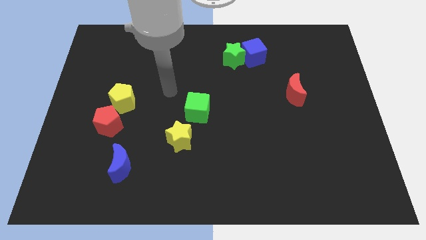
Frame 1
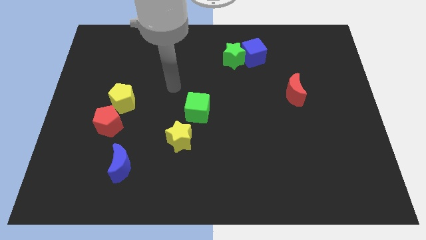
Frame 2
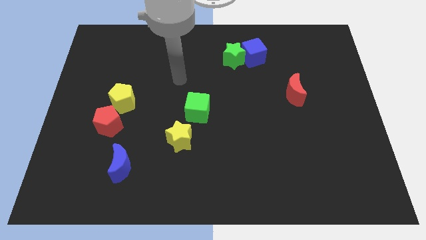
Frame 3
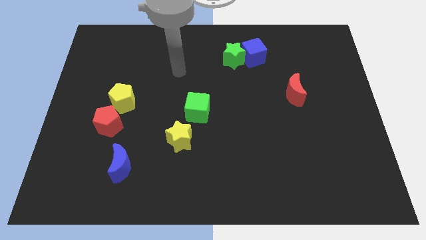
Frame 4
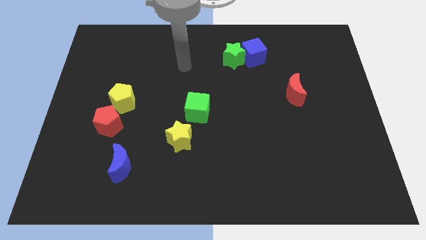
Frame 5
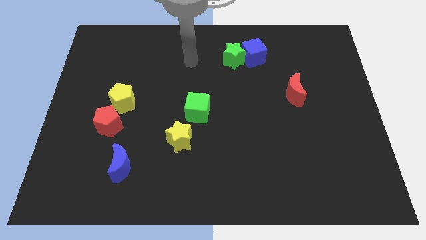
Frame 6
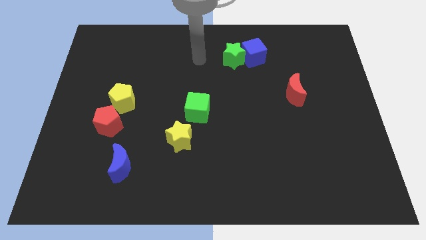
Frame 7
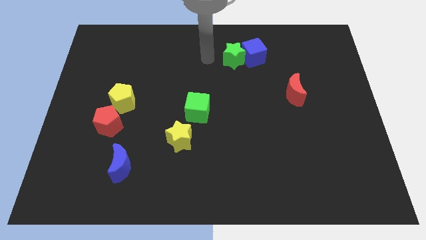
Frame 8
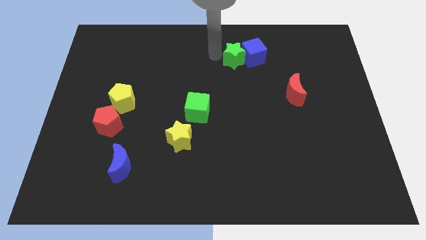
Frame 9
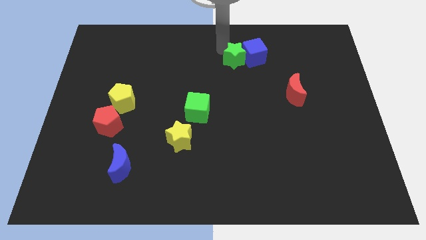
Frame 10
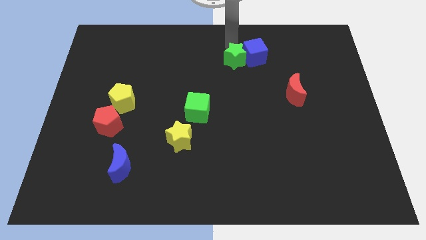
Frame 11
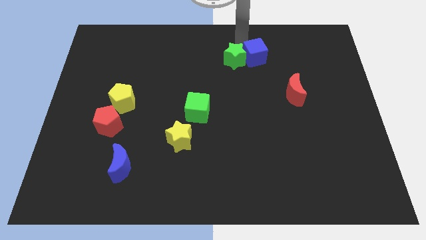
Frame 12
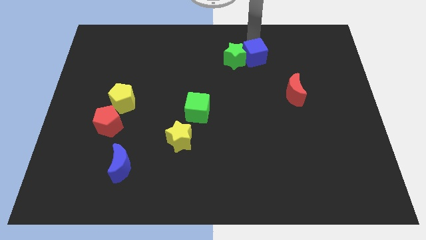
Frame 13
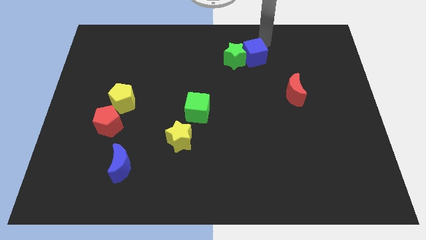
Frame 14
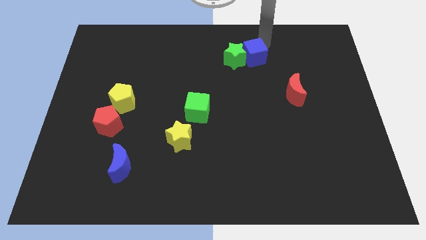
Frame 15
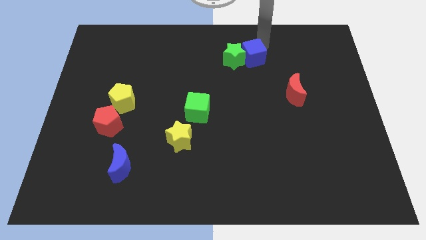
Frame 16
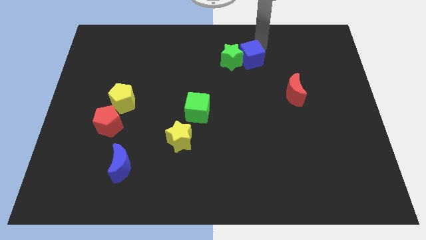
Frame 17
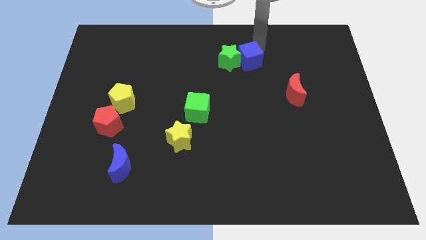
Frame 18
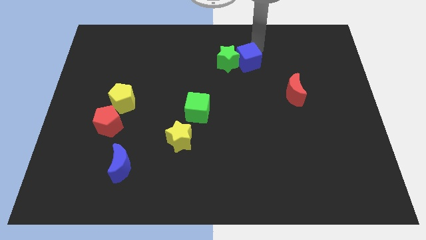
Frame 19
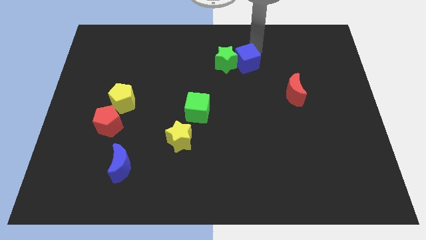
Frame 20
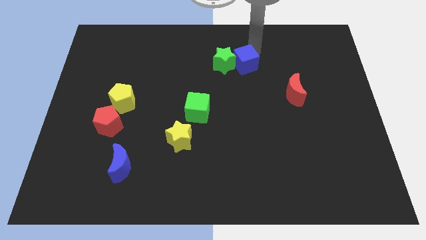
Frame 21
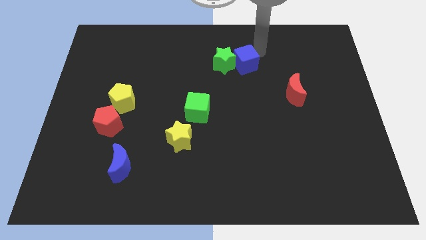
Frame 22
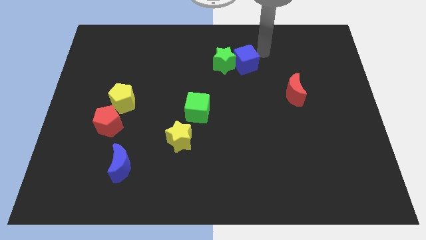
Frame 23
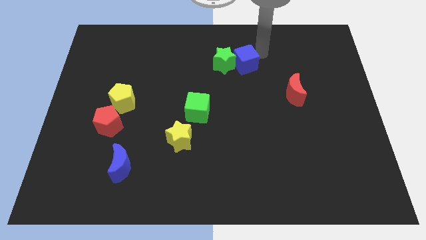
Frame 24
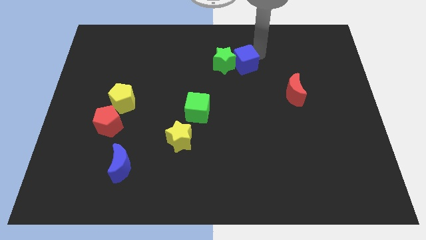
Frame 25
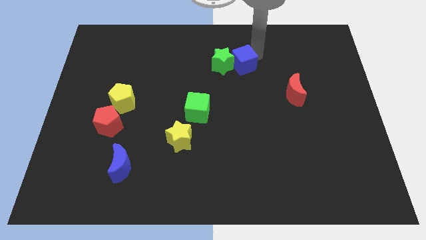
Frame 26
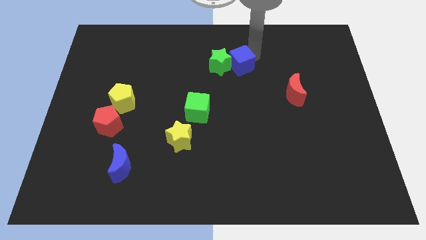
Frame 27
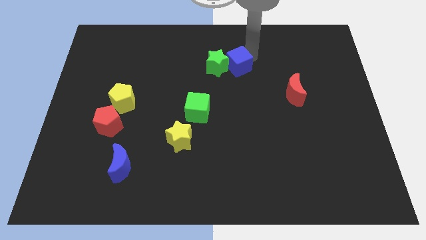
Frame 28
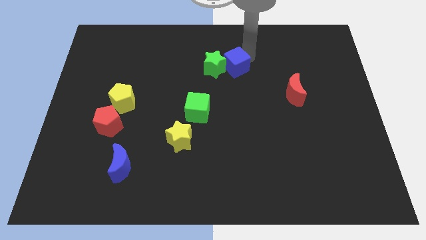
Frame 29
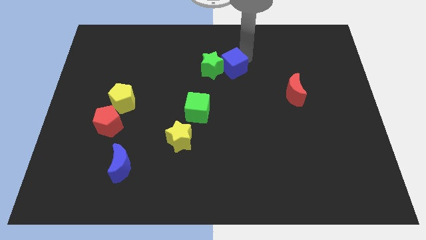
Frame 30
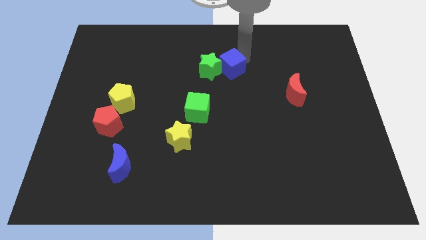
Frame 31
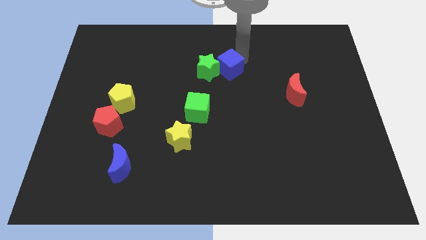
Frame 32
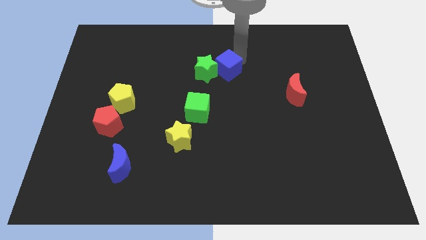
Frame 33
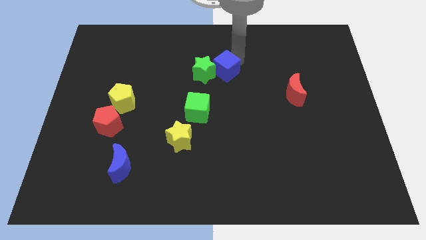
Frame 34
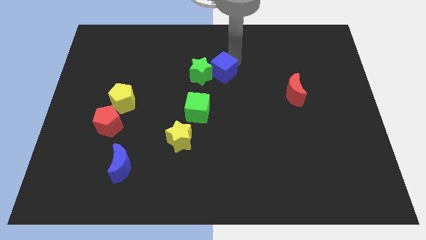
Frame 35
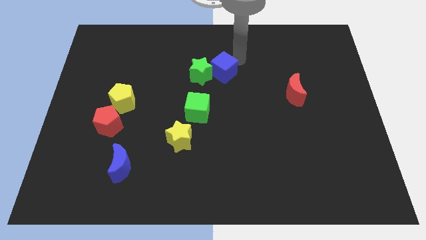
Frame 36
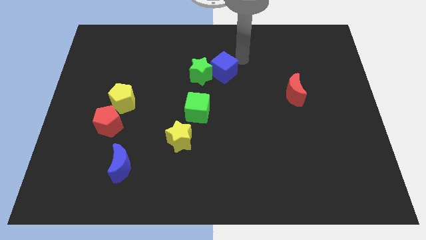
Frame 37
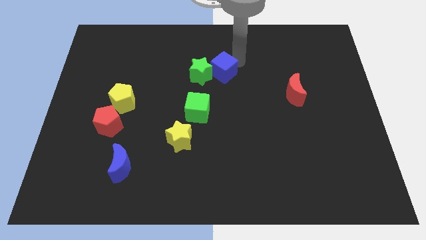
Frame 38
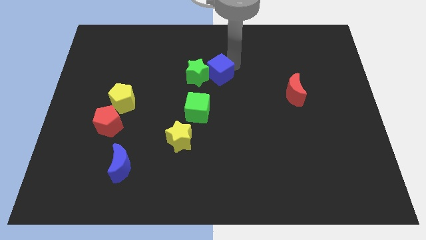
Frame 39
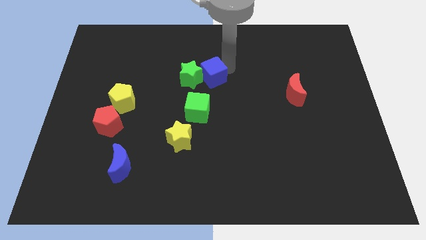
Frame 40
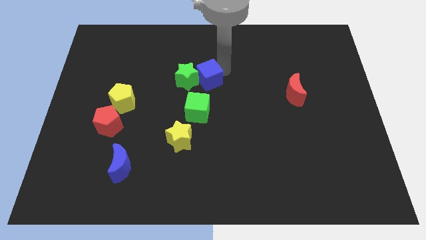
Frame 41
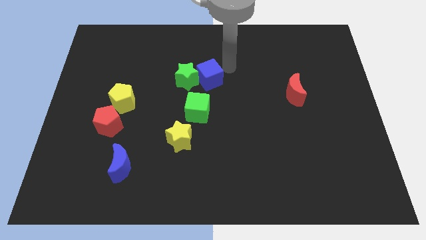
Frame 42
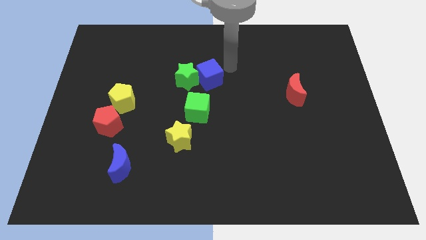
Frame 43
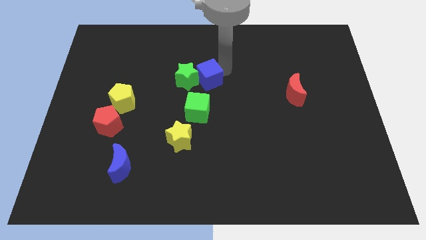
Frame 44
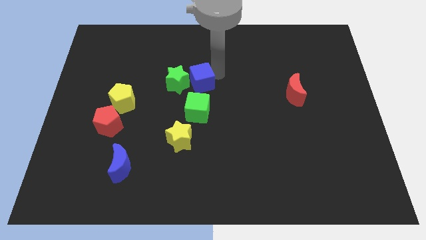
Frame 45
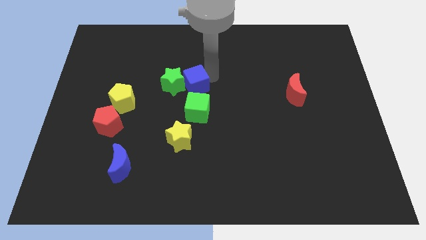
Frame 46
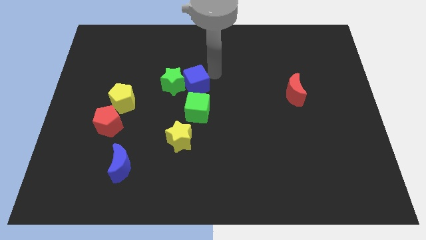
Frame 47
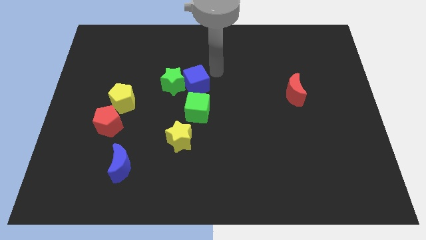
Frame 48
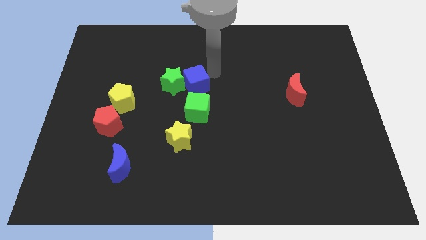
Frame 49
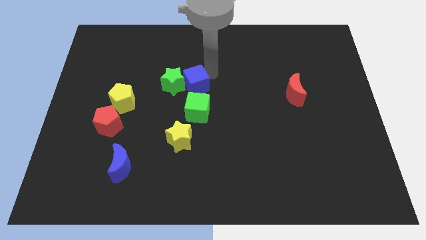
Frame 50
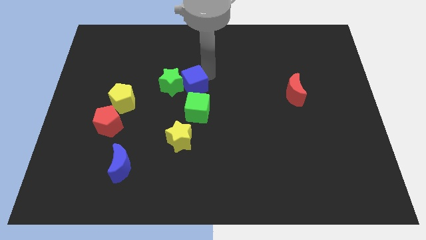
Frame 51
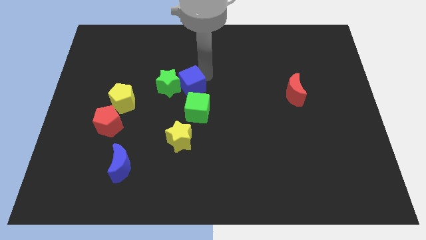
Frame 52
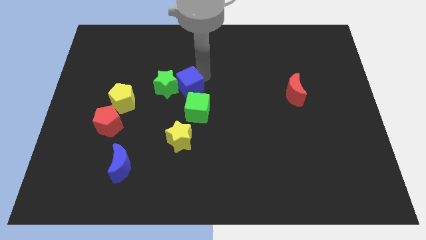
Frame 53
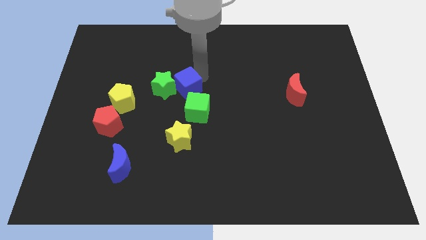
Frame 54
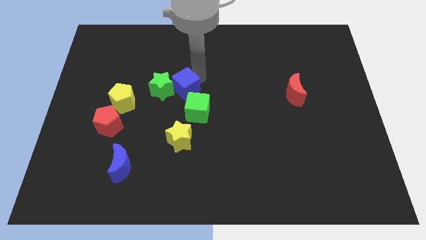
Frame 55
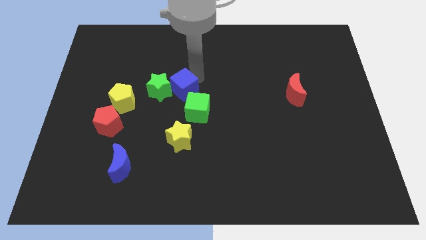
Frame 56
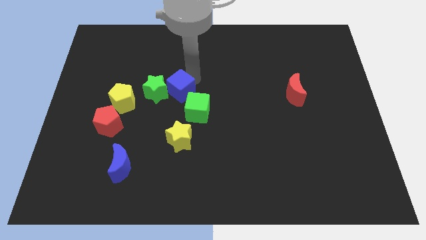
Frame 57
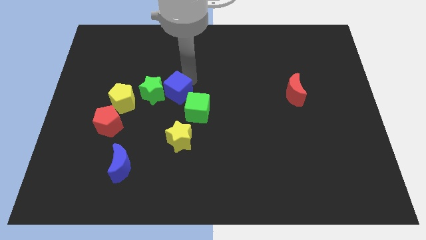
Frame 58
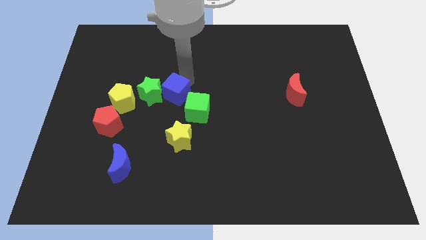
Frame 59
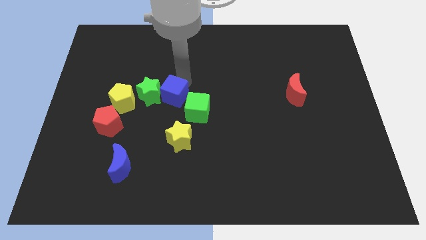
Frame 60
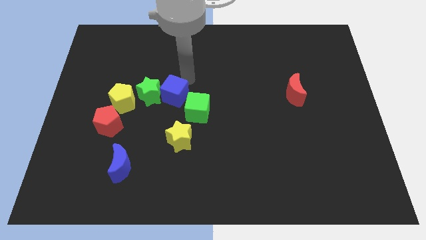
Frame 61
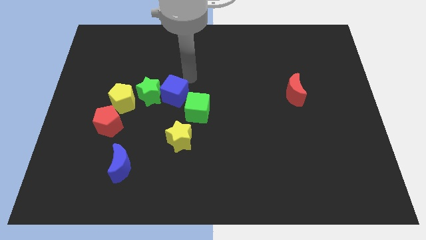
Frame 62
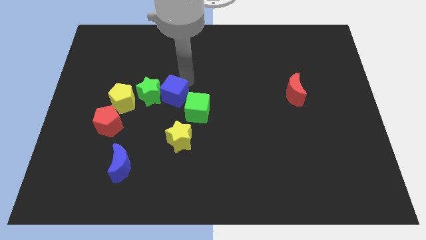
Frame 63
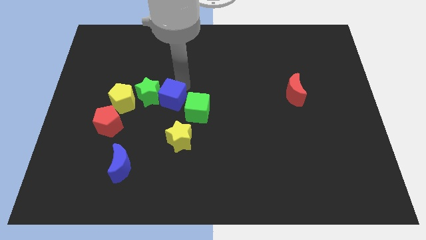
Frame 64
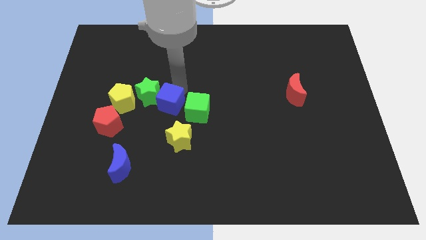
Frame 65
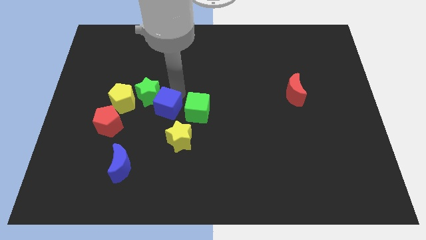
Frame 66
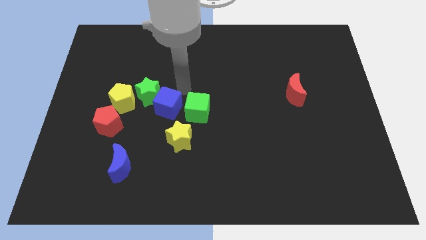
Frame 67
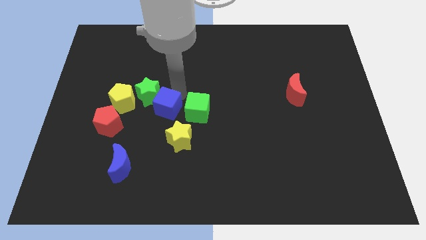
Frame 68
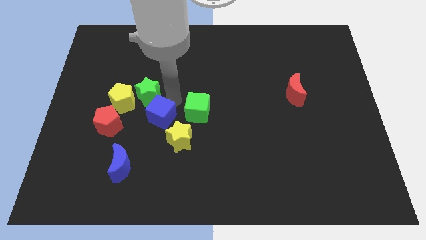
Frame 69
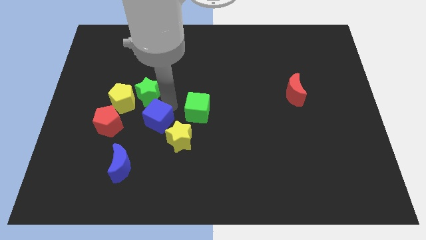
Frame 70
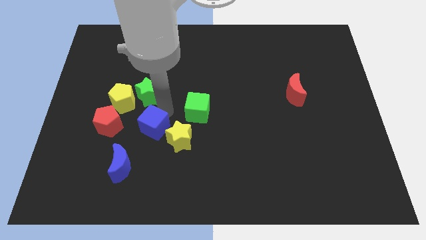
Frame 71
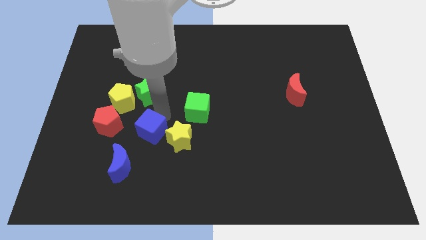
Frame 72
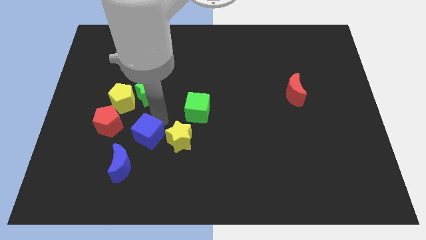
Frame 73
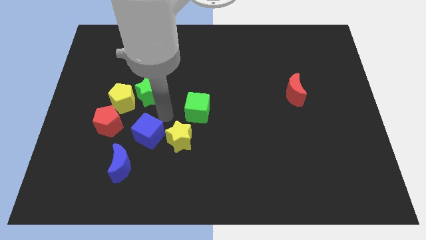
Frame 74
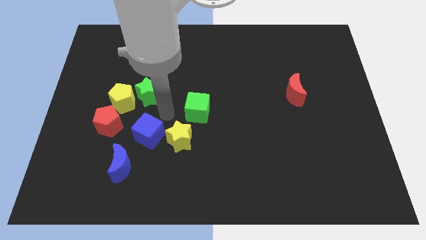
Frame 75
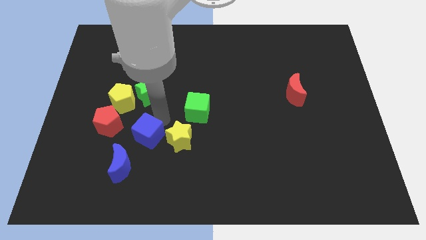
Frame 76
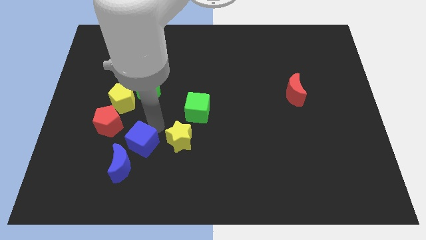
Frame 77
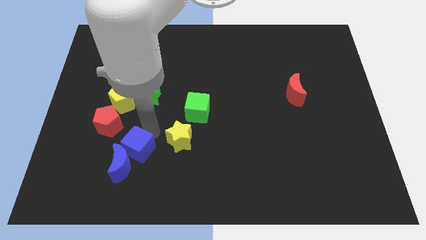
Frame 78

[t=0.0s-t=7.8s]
slide the blue cube to the blue moon
